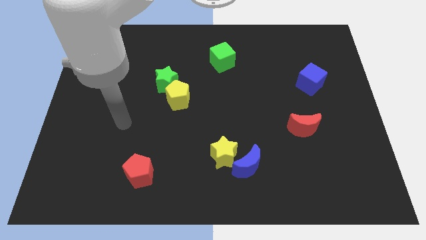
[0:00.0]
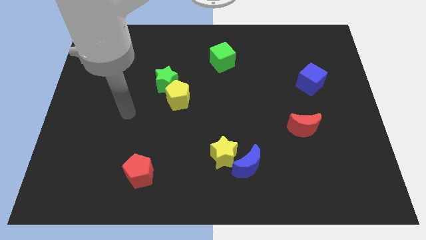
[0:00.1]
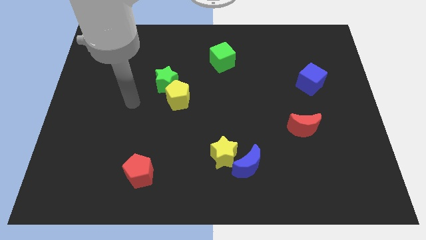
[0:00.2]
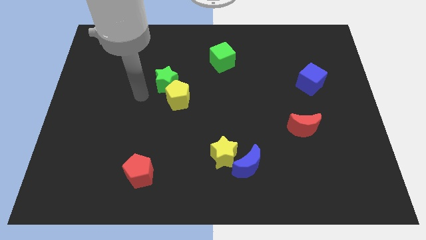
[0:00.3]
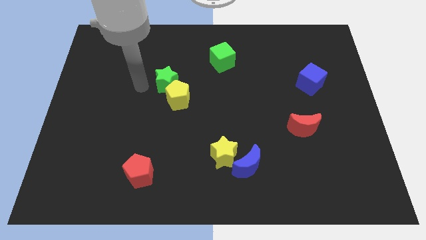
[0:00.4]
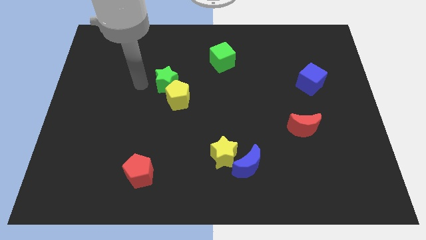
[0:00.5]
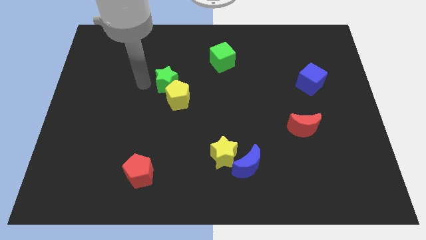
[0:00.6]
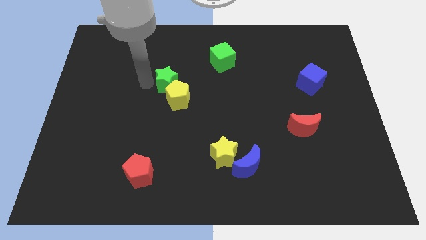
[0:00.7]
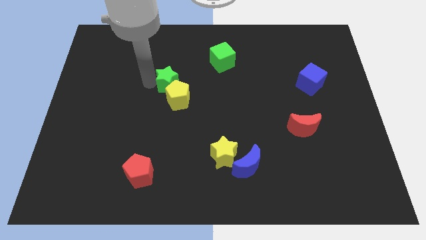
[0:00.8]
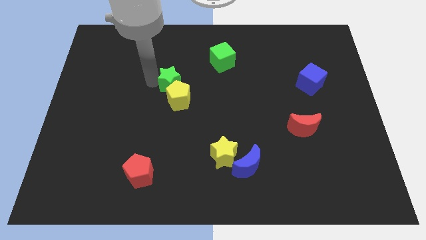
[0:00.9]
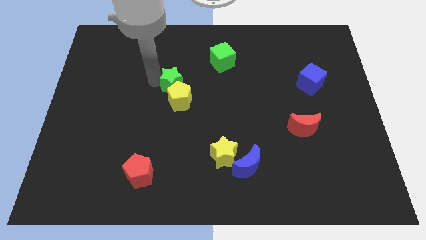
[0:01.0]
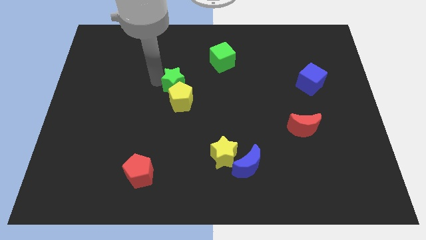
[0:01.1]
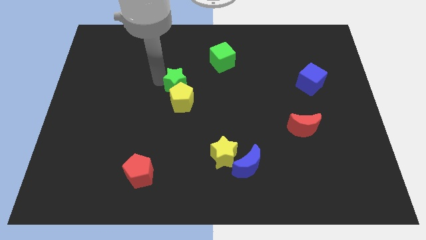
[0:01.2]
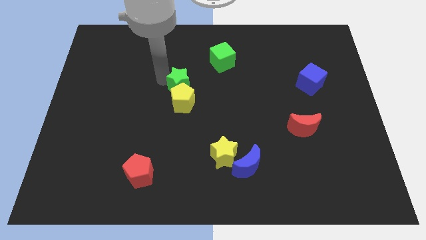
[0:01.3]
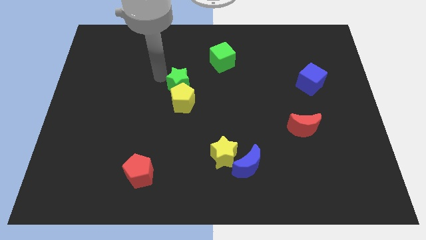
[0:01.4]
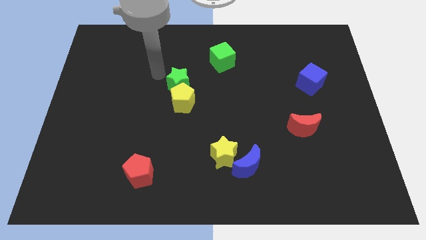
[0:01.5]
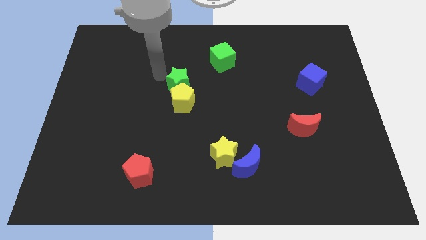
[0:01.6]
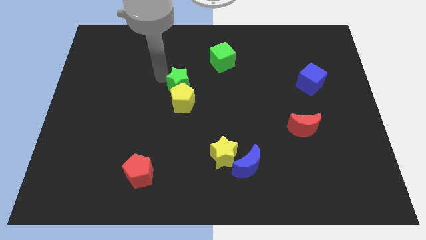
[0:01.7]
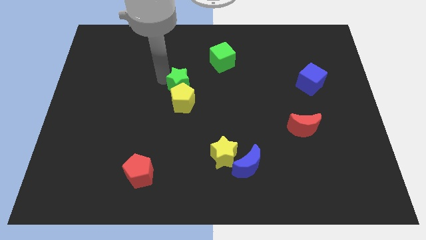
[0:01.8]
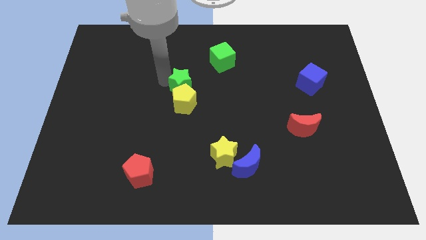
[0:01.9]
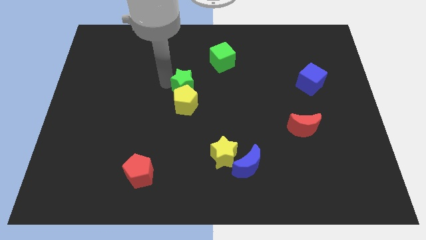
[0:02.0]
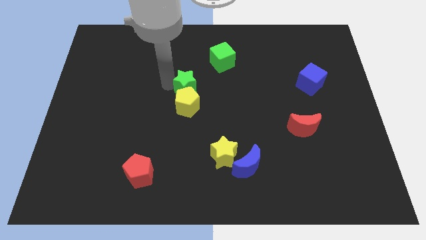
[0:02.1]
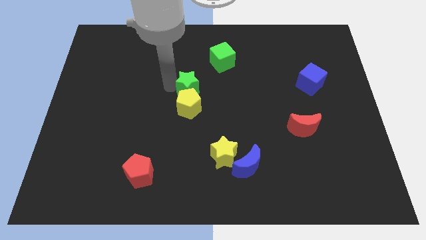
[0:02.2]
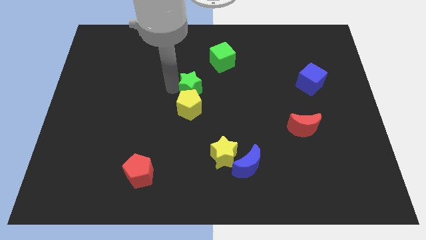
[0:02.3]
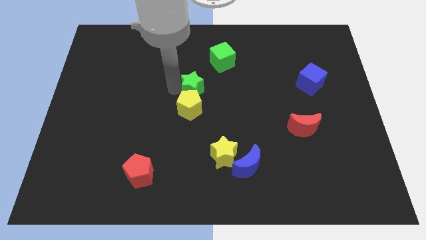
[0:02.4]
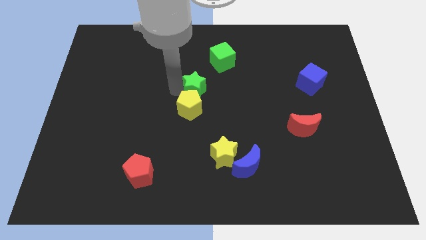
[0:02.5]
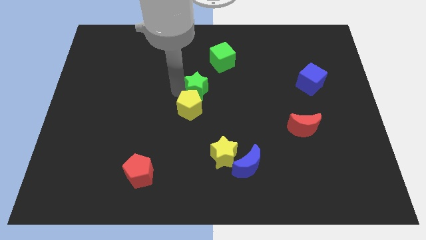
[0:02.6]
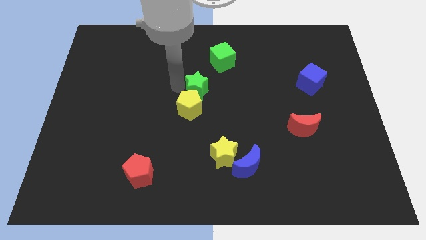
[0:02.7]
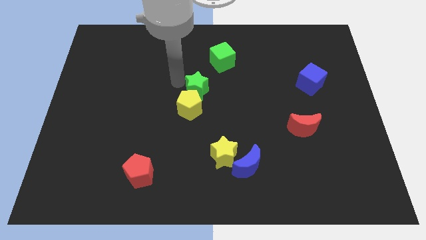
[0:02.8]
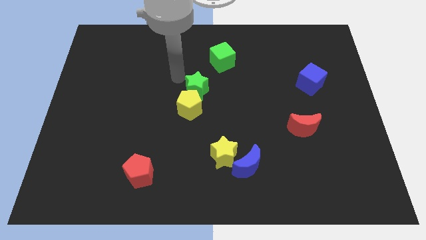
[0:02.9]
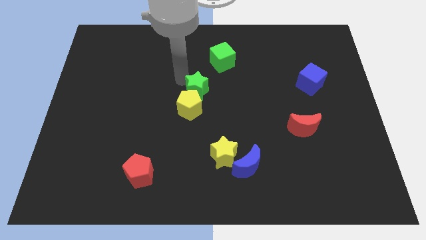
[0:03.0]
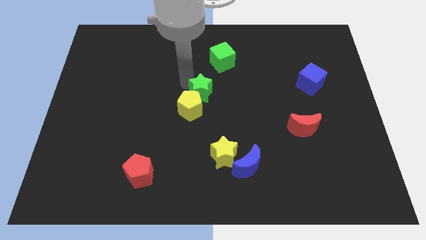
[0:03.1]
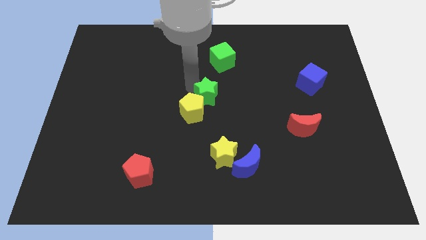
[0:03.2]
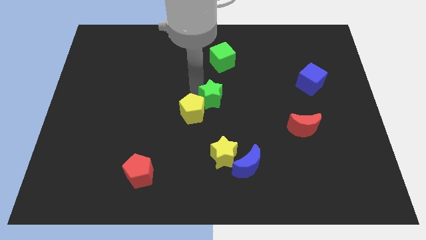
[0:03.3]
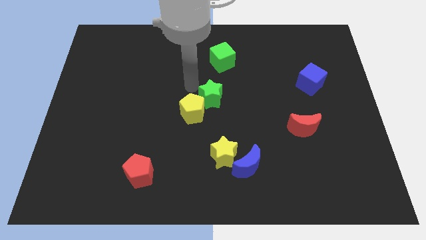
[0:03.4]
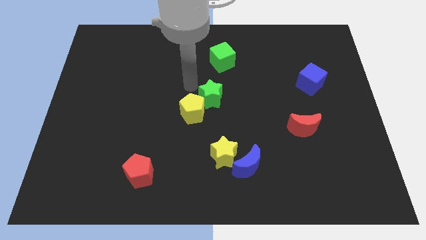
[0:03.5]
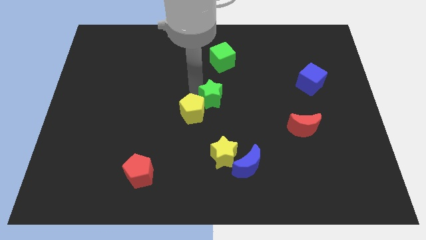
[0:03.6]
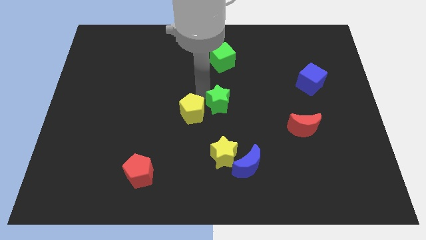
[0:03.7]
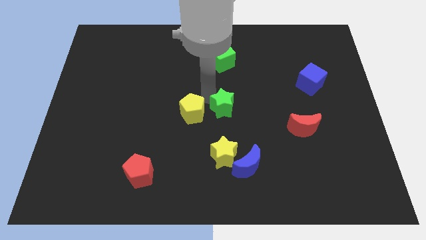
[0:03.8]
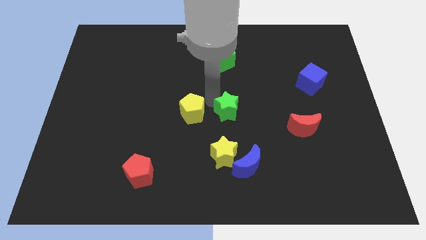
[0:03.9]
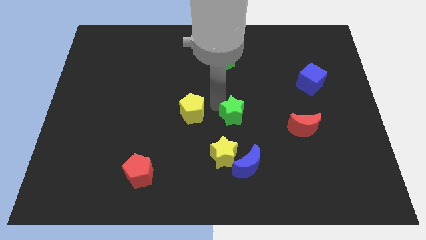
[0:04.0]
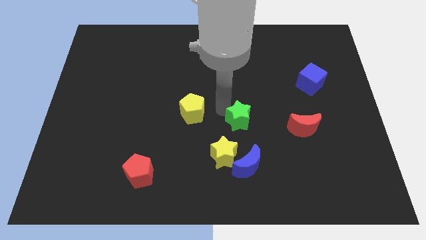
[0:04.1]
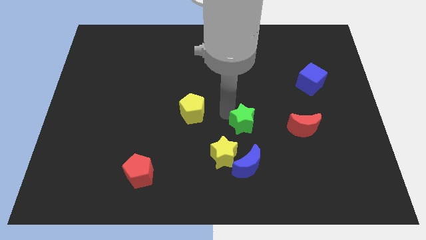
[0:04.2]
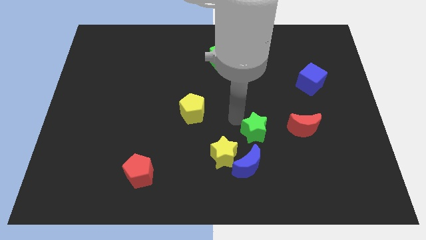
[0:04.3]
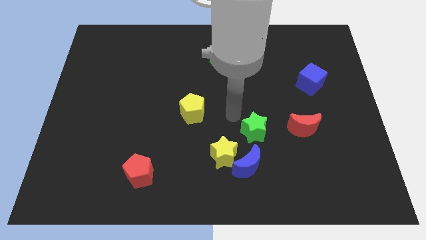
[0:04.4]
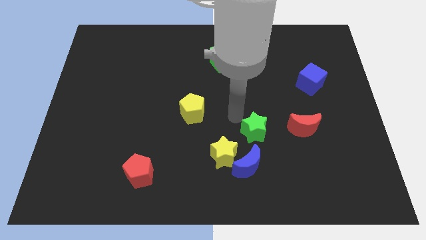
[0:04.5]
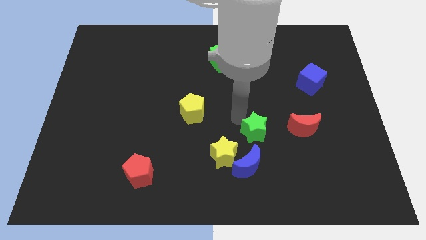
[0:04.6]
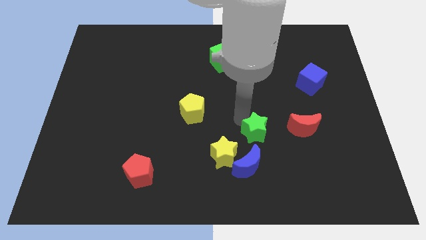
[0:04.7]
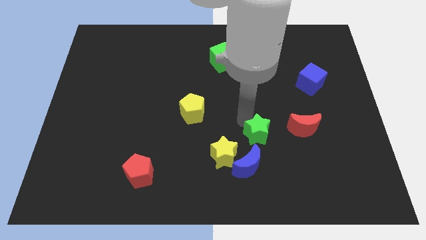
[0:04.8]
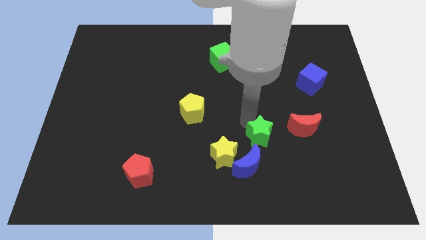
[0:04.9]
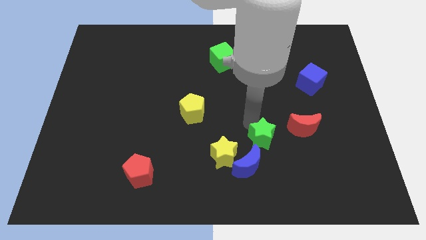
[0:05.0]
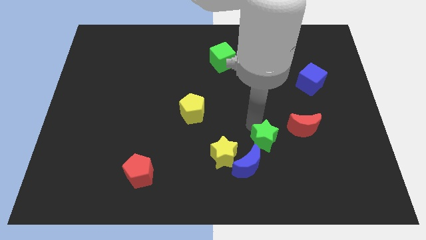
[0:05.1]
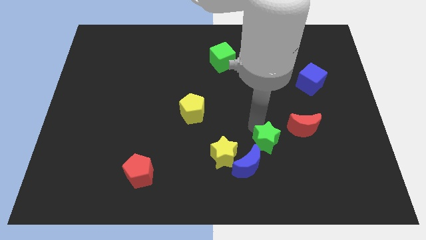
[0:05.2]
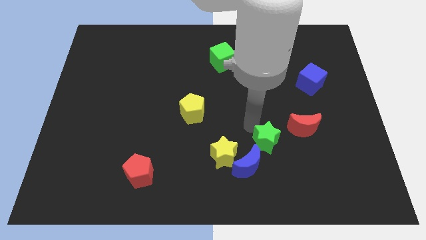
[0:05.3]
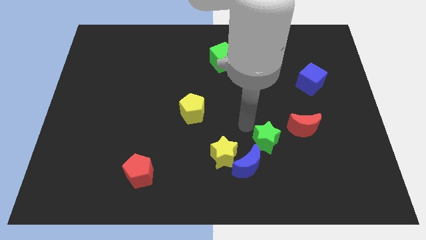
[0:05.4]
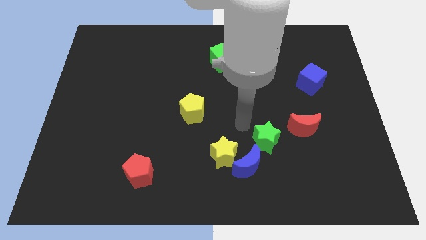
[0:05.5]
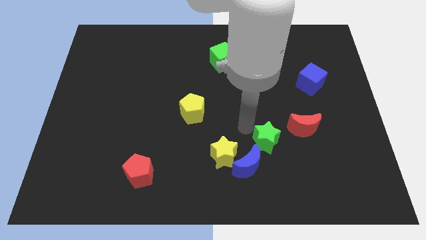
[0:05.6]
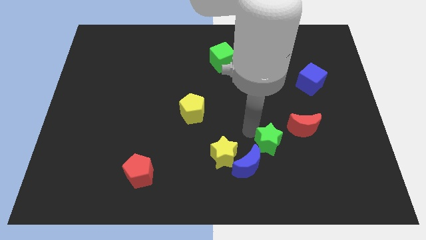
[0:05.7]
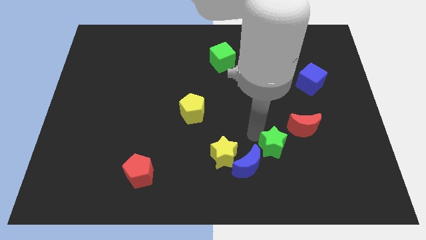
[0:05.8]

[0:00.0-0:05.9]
slide the green star just right of the blue moon

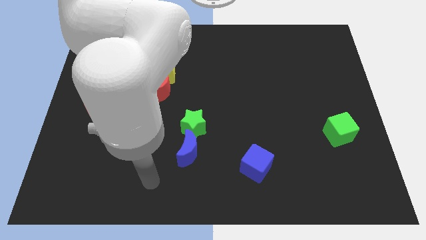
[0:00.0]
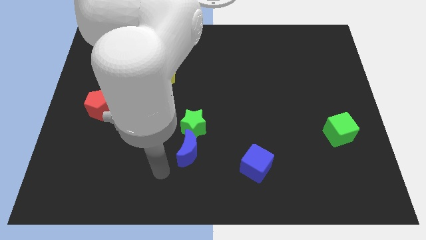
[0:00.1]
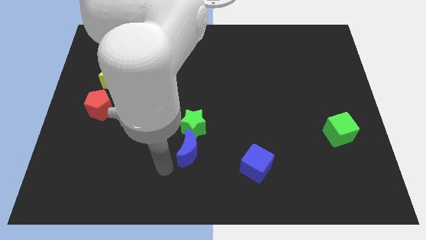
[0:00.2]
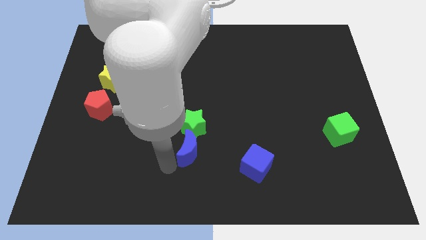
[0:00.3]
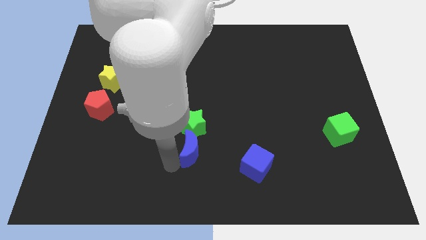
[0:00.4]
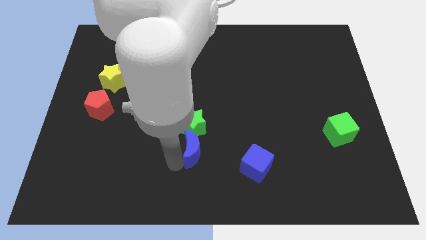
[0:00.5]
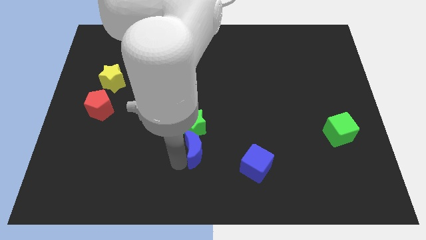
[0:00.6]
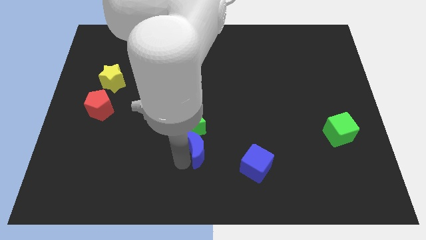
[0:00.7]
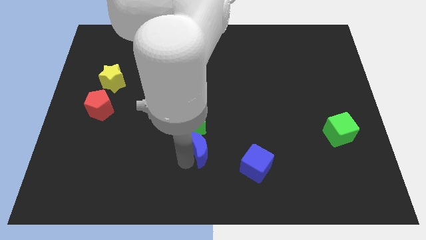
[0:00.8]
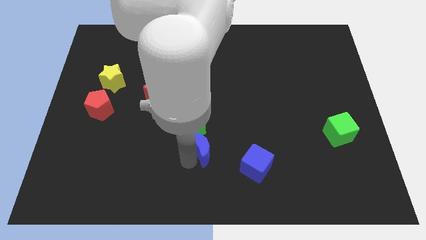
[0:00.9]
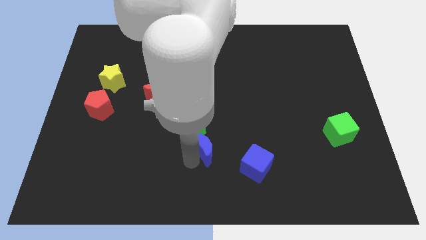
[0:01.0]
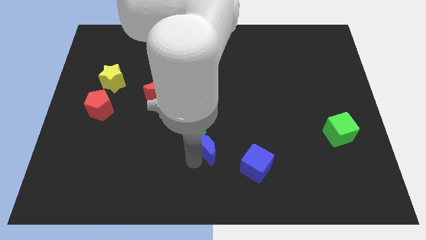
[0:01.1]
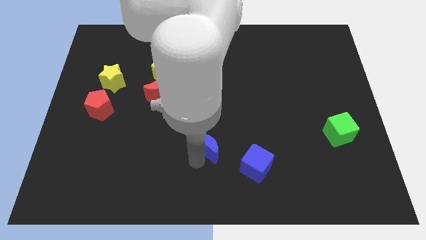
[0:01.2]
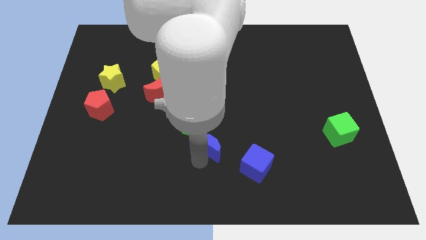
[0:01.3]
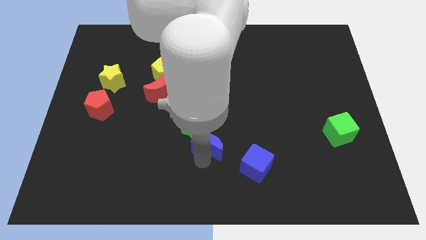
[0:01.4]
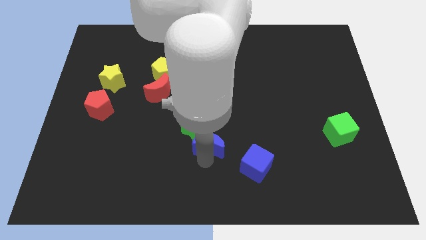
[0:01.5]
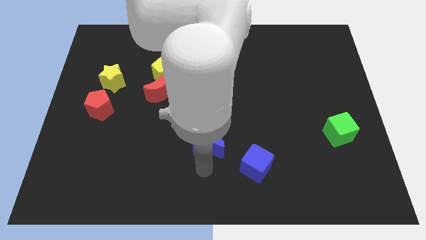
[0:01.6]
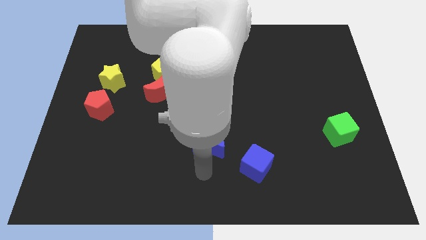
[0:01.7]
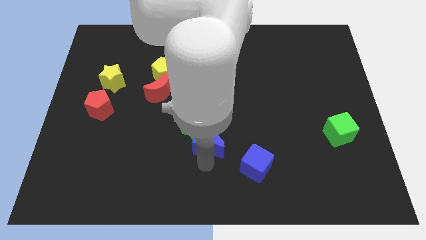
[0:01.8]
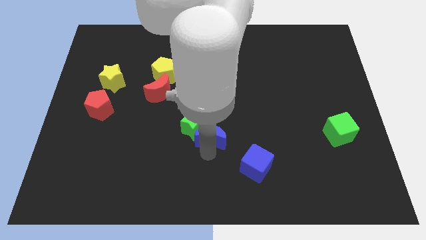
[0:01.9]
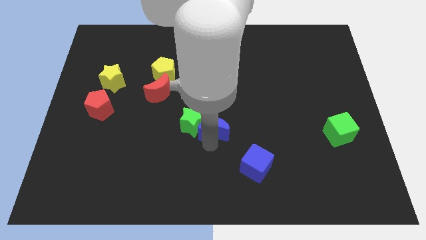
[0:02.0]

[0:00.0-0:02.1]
slide the blue moon diagonally up and to the right of the green star
